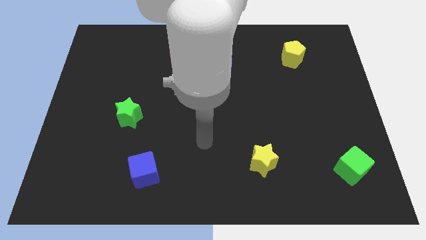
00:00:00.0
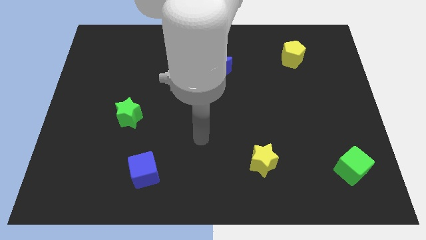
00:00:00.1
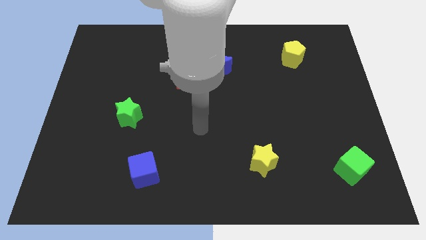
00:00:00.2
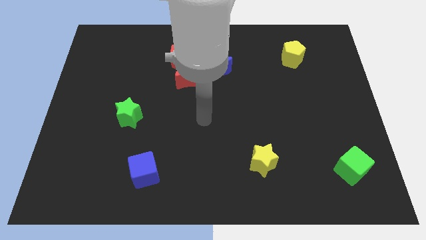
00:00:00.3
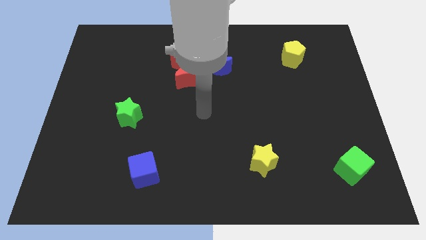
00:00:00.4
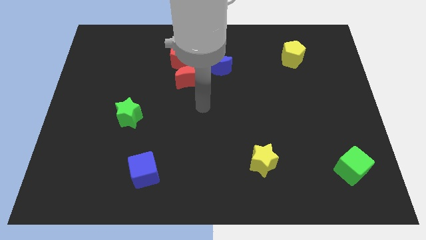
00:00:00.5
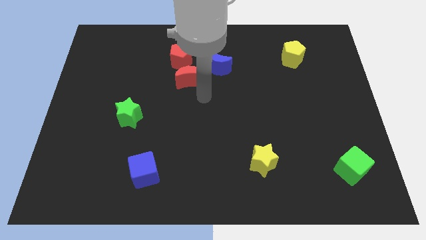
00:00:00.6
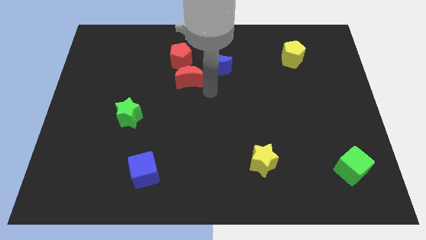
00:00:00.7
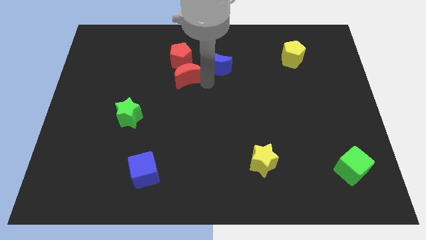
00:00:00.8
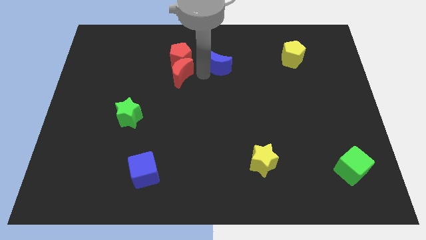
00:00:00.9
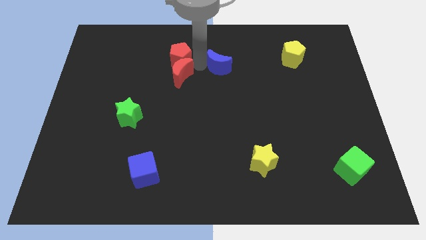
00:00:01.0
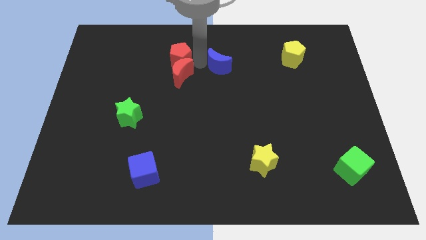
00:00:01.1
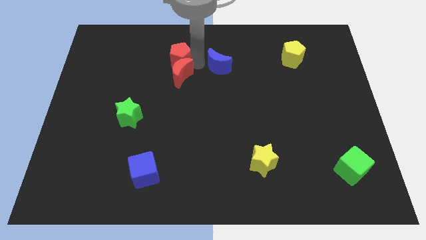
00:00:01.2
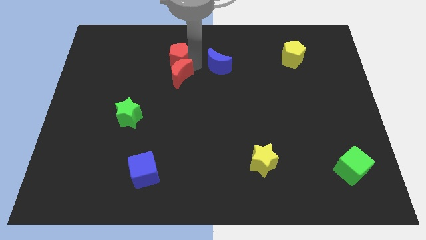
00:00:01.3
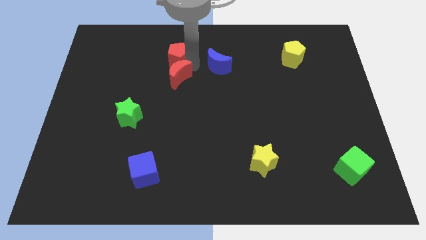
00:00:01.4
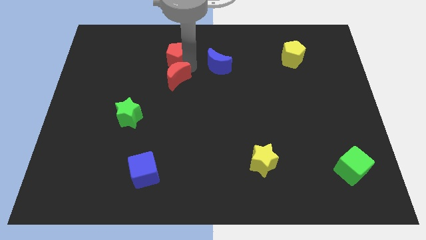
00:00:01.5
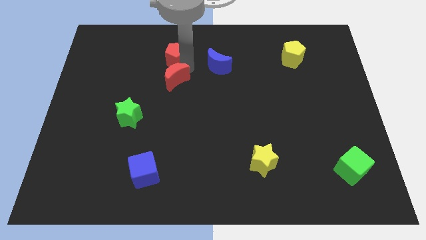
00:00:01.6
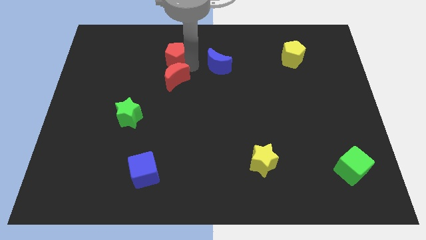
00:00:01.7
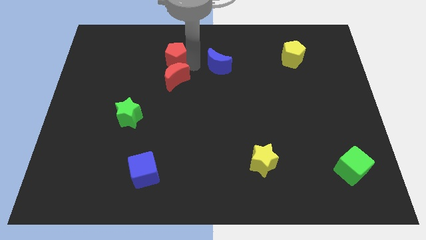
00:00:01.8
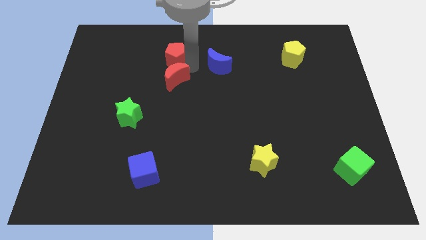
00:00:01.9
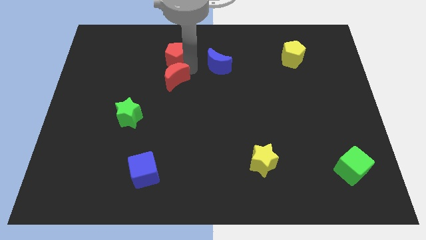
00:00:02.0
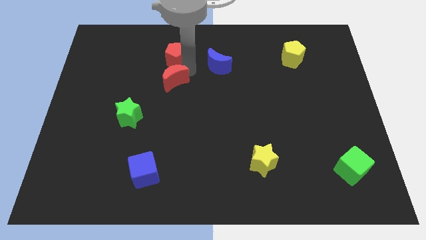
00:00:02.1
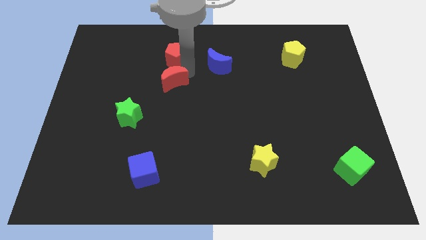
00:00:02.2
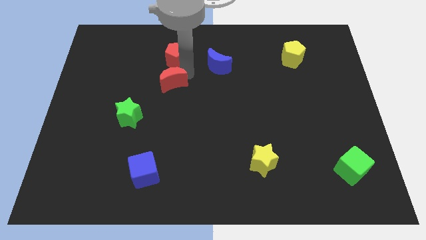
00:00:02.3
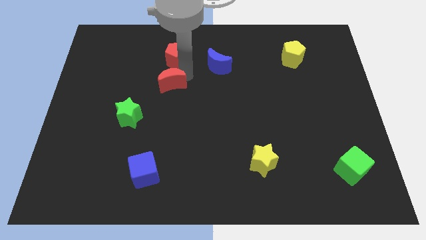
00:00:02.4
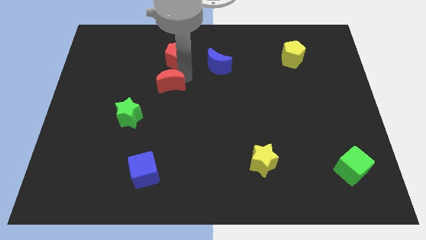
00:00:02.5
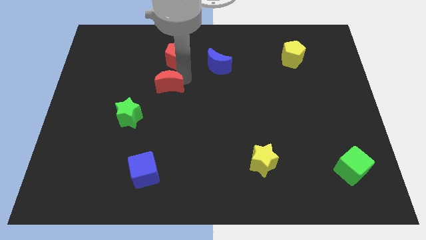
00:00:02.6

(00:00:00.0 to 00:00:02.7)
pull the red moon apart from the red pentagon and blue moon

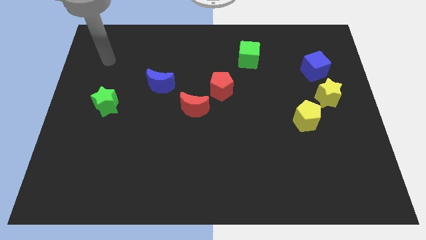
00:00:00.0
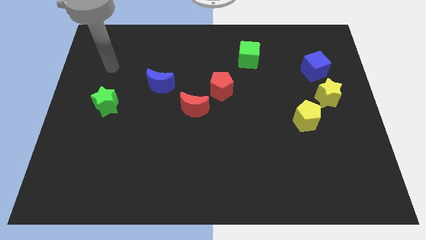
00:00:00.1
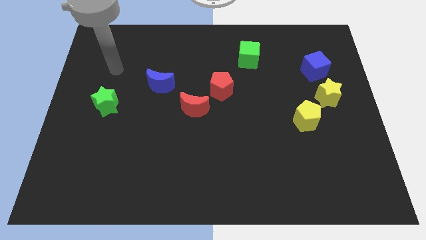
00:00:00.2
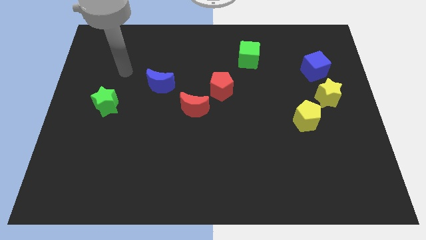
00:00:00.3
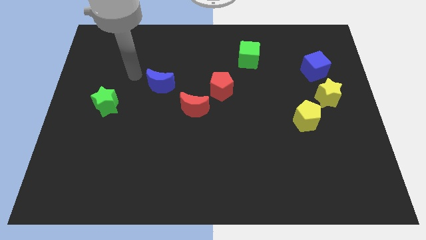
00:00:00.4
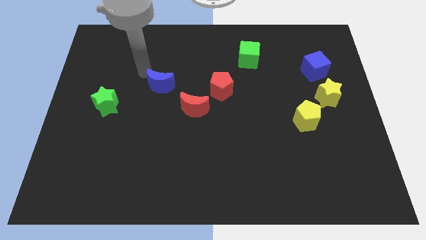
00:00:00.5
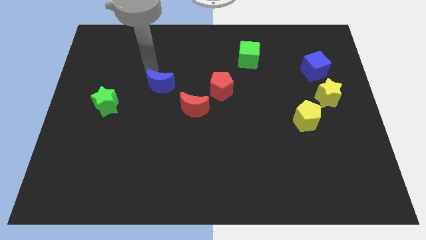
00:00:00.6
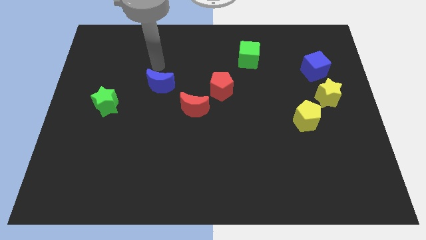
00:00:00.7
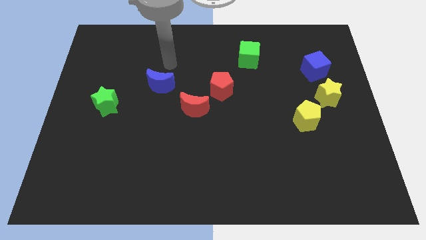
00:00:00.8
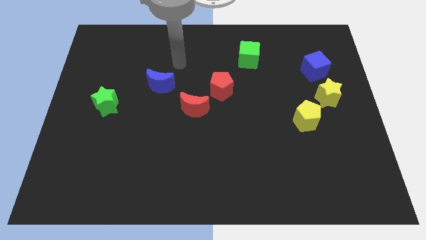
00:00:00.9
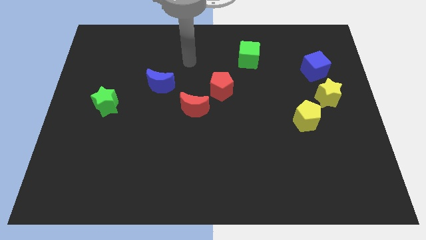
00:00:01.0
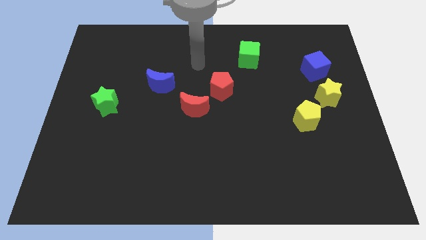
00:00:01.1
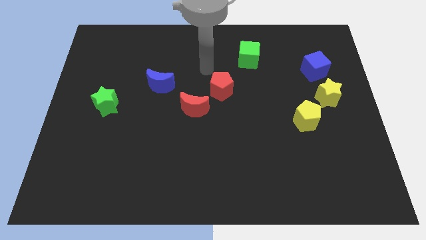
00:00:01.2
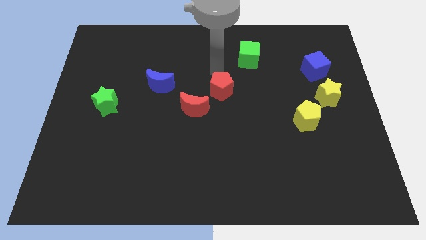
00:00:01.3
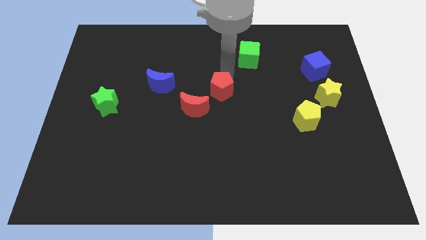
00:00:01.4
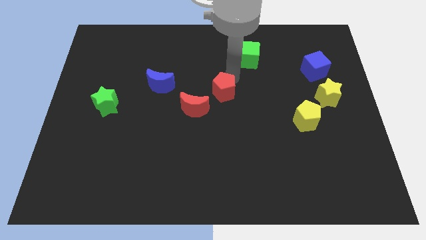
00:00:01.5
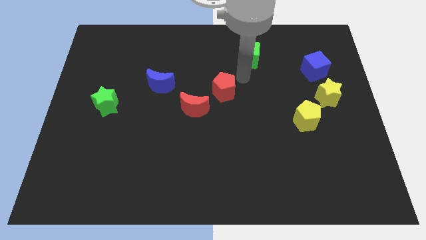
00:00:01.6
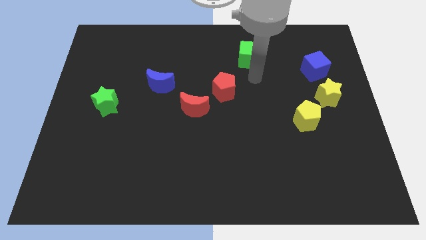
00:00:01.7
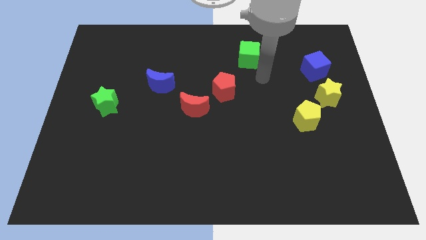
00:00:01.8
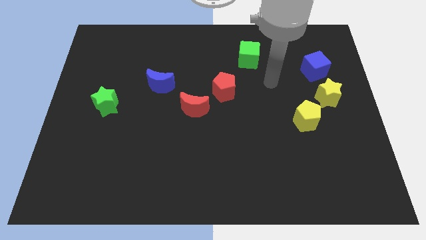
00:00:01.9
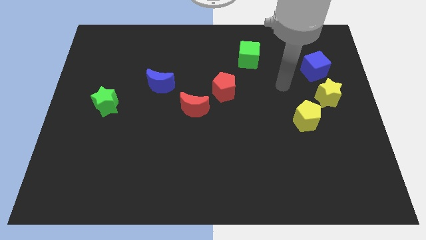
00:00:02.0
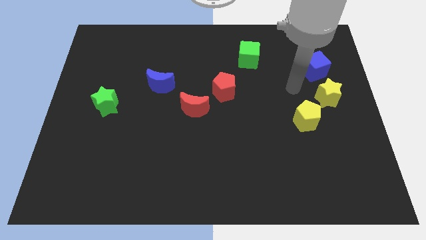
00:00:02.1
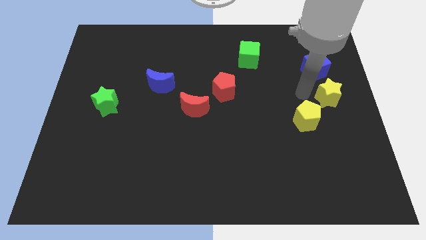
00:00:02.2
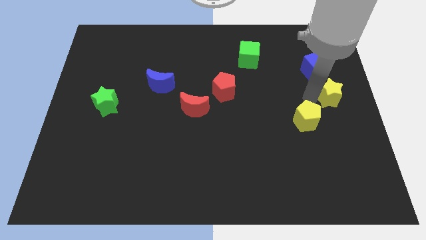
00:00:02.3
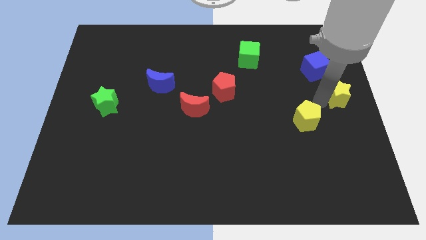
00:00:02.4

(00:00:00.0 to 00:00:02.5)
pull the yellow pentagon apart from the yellow star

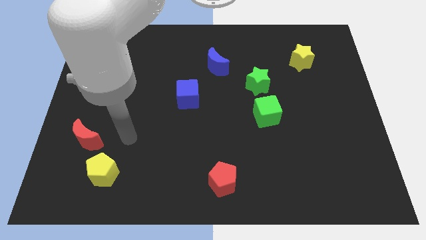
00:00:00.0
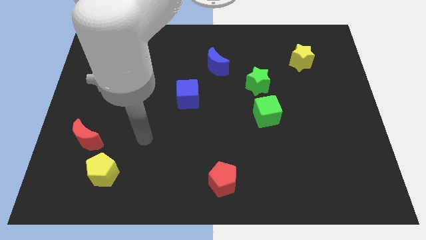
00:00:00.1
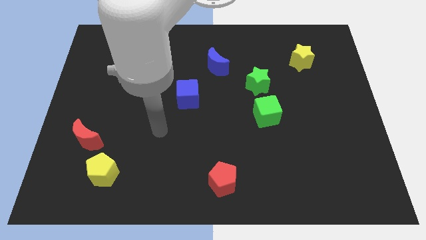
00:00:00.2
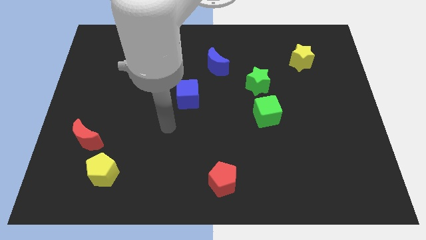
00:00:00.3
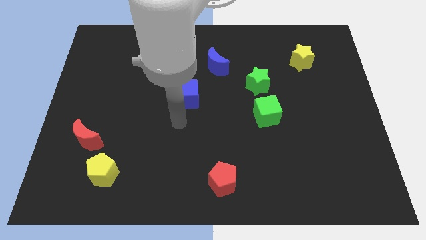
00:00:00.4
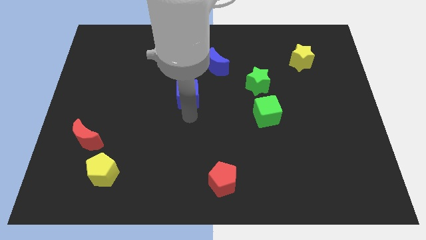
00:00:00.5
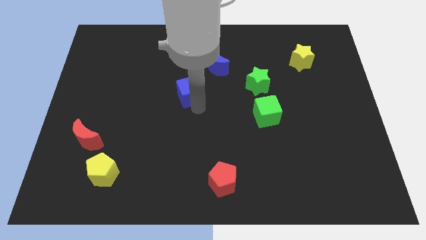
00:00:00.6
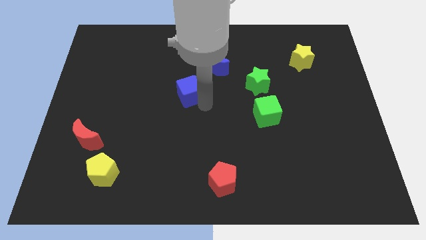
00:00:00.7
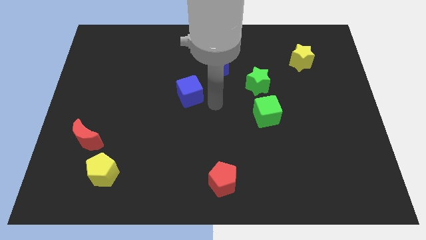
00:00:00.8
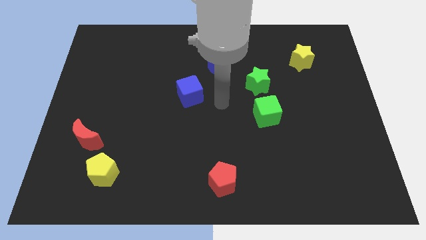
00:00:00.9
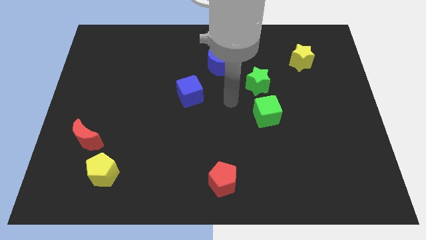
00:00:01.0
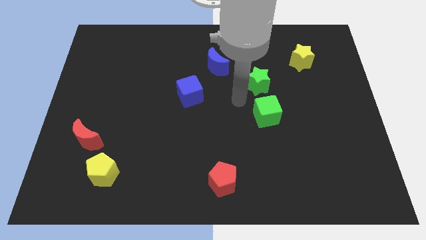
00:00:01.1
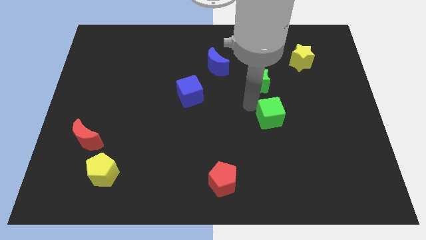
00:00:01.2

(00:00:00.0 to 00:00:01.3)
move the green cube away from the green star

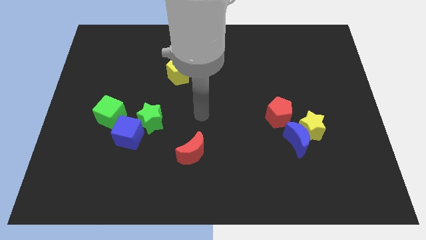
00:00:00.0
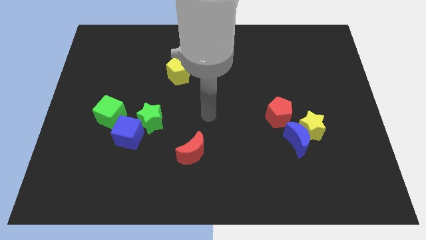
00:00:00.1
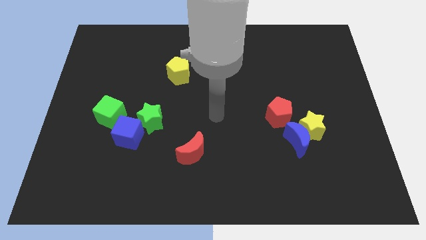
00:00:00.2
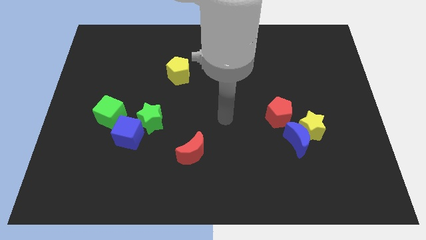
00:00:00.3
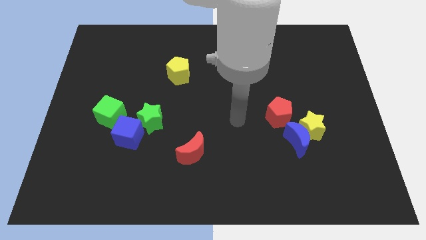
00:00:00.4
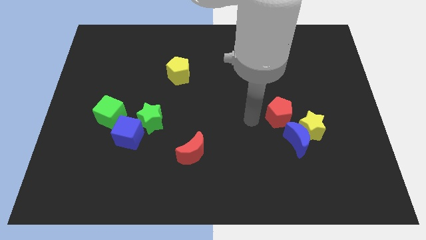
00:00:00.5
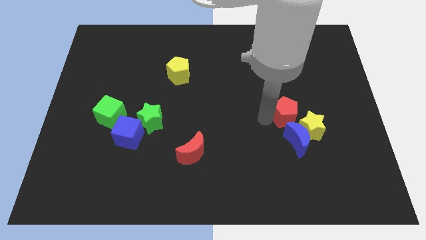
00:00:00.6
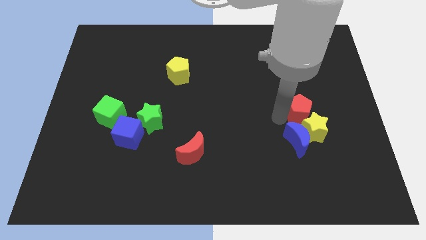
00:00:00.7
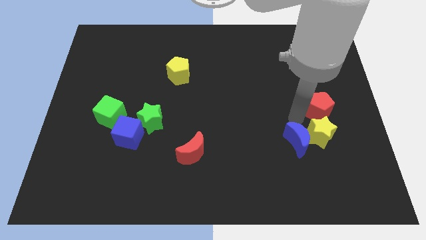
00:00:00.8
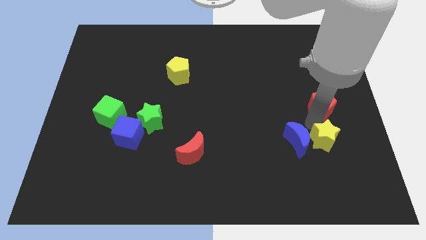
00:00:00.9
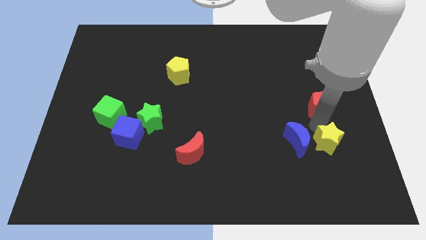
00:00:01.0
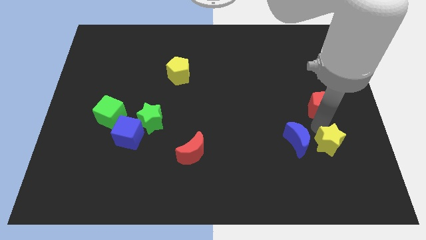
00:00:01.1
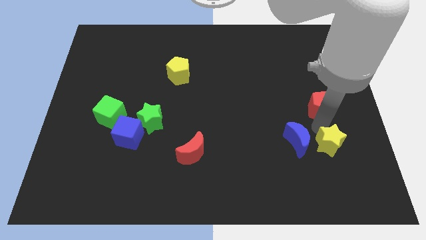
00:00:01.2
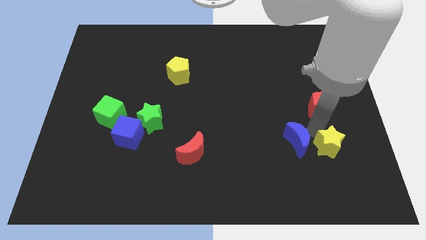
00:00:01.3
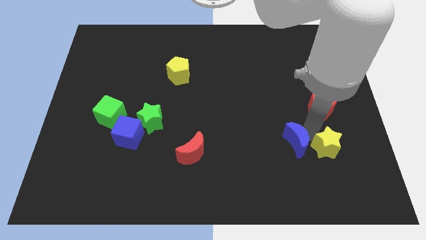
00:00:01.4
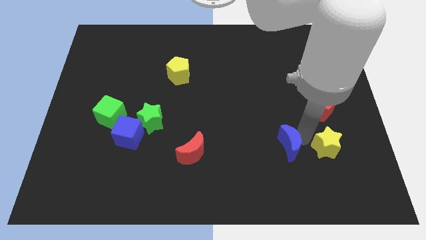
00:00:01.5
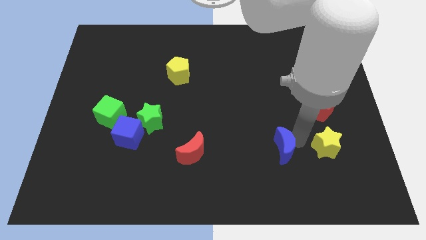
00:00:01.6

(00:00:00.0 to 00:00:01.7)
pull the blue moon apart from the yellow star and red pentagon

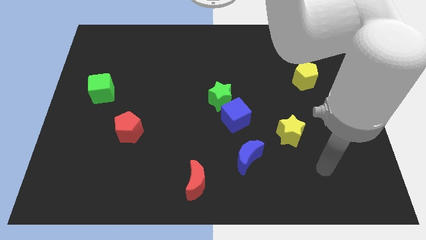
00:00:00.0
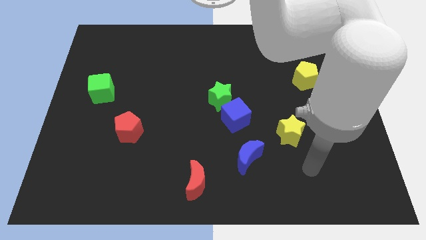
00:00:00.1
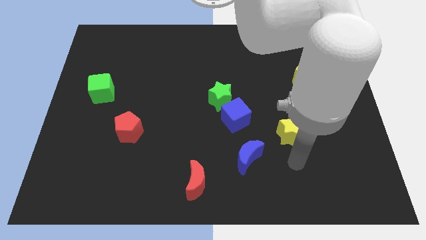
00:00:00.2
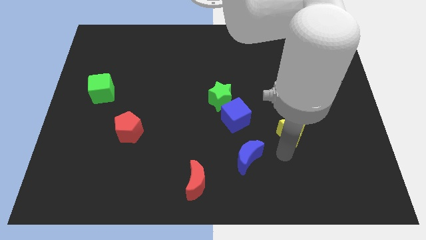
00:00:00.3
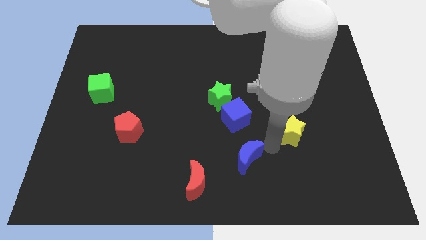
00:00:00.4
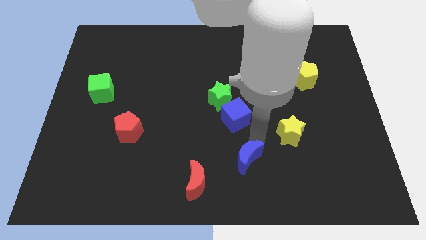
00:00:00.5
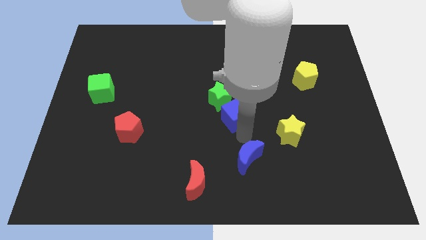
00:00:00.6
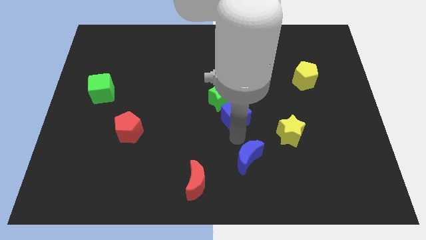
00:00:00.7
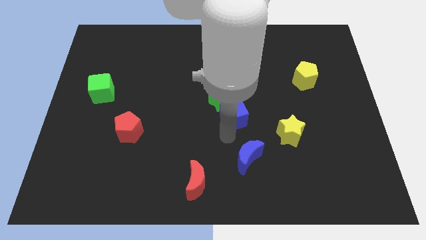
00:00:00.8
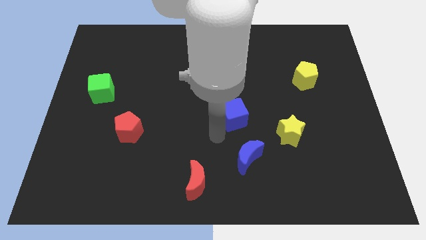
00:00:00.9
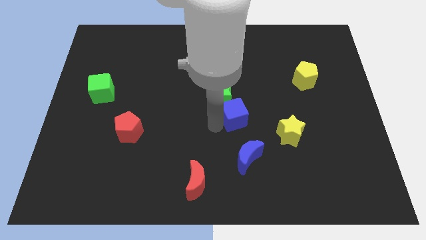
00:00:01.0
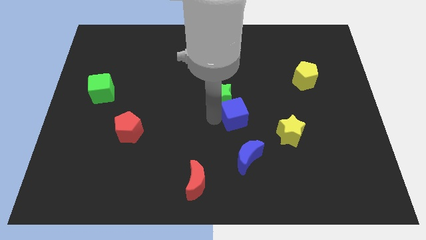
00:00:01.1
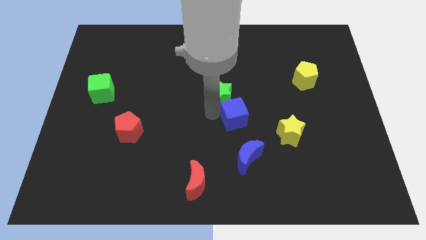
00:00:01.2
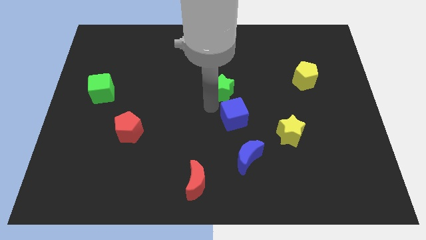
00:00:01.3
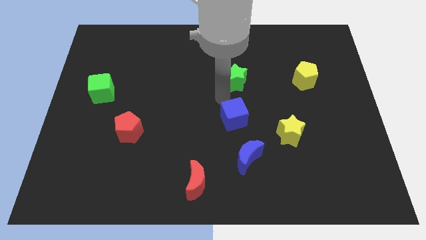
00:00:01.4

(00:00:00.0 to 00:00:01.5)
separate the blue cube from the green star
